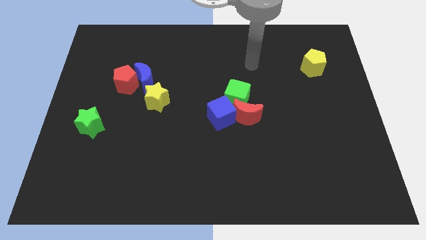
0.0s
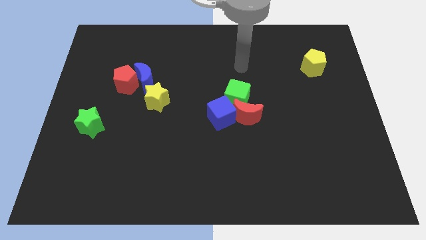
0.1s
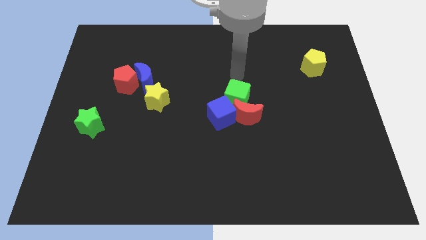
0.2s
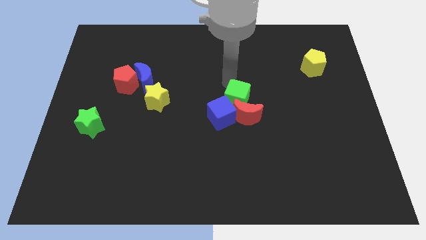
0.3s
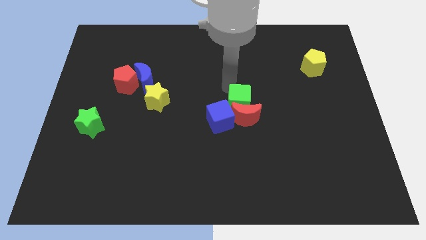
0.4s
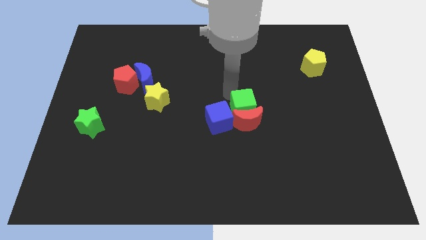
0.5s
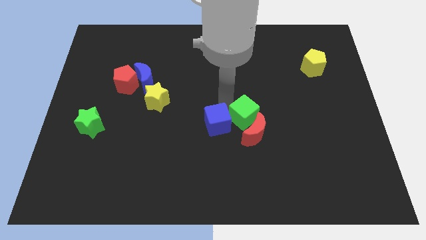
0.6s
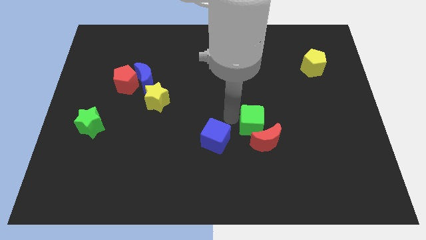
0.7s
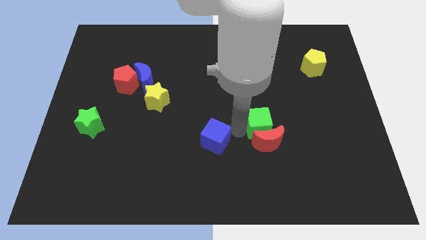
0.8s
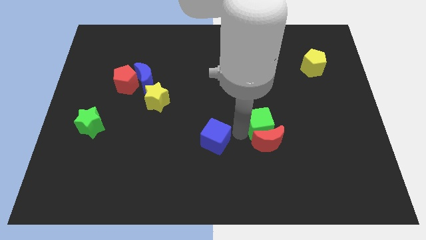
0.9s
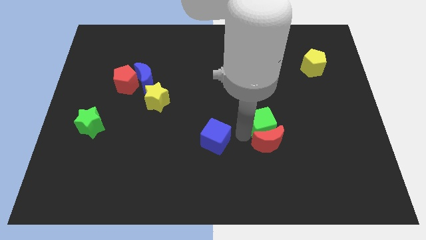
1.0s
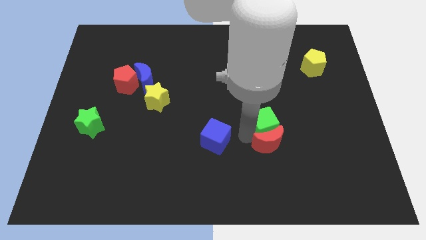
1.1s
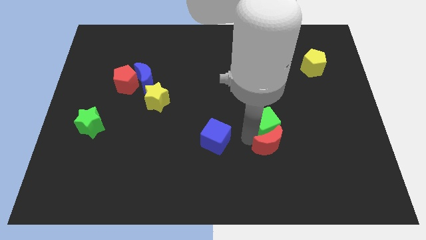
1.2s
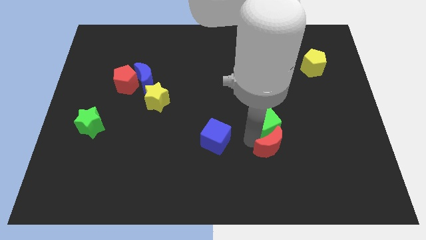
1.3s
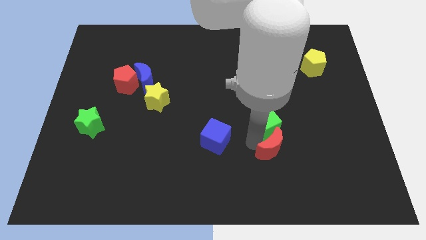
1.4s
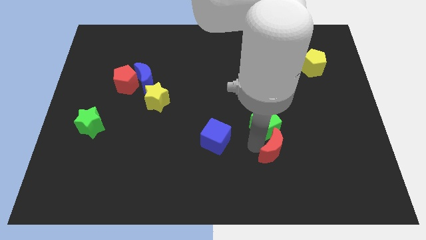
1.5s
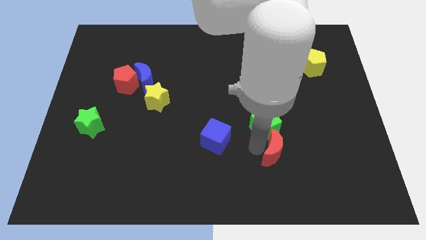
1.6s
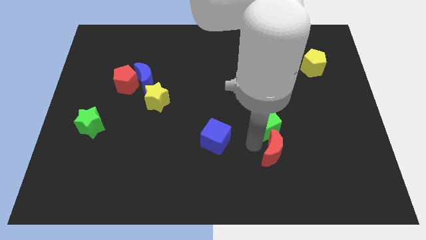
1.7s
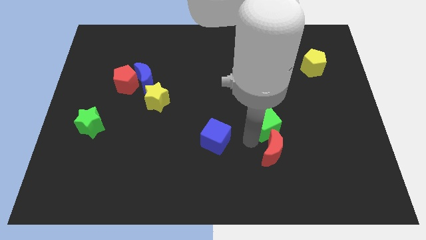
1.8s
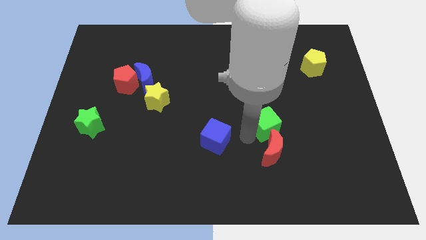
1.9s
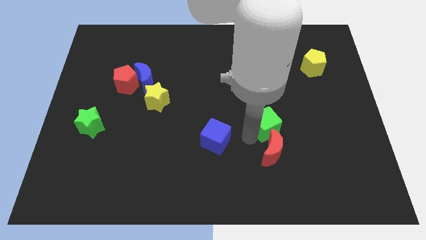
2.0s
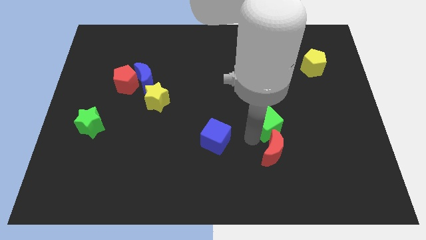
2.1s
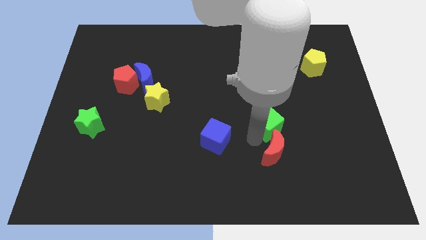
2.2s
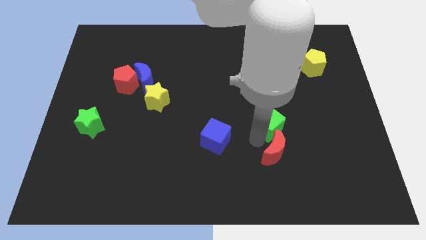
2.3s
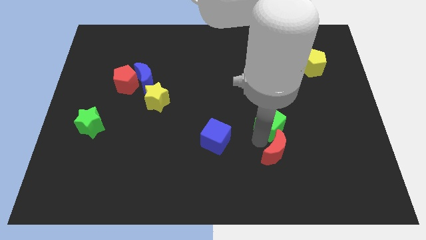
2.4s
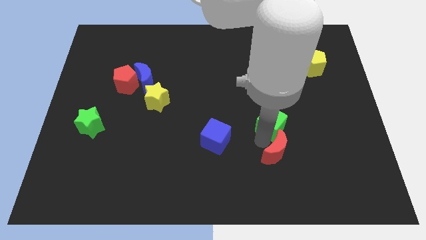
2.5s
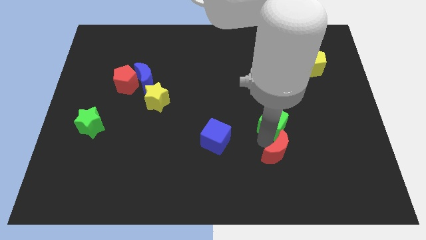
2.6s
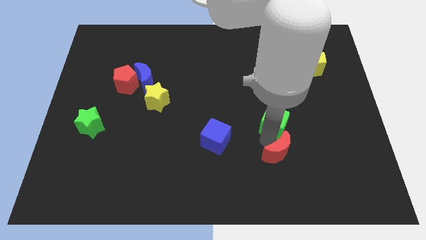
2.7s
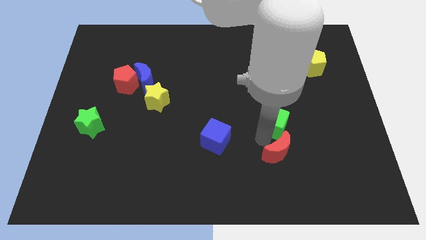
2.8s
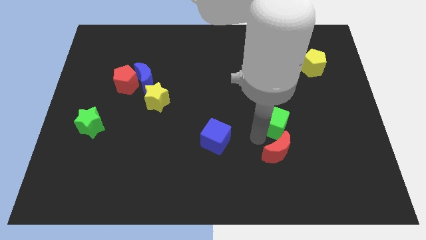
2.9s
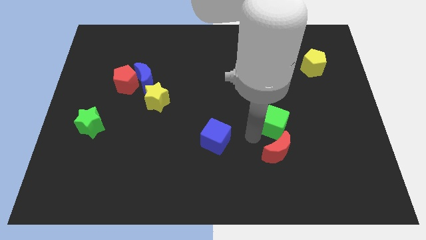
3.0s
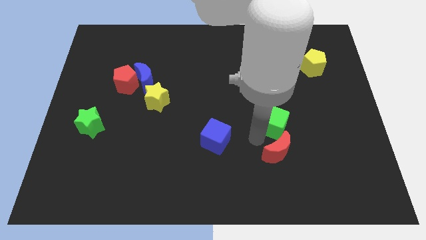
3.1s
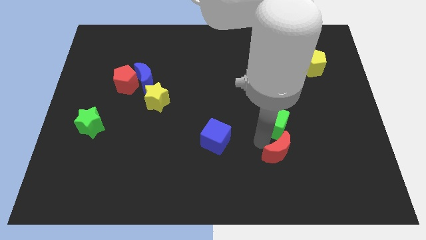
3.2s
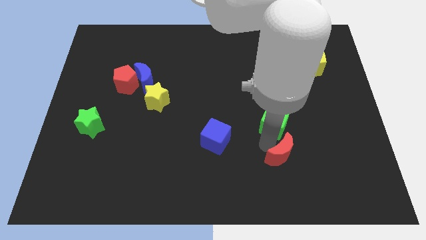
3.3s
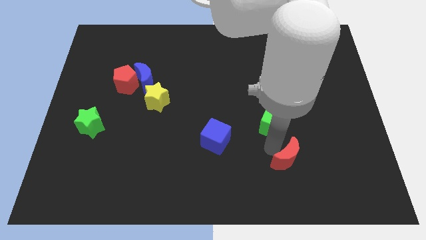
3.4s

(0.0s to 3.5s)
pull the red moon apart from the green cube and blue cube

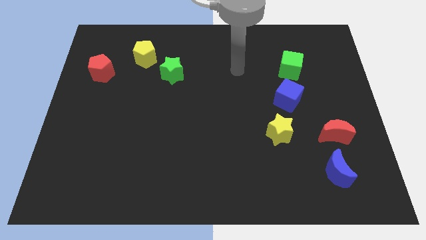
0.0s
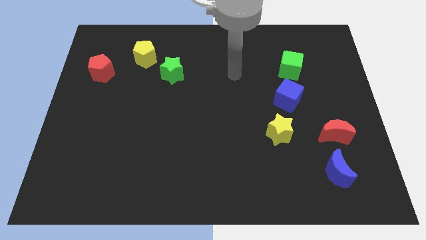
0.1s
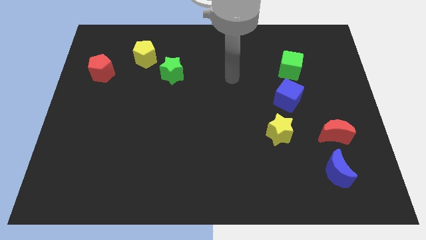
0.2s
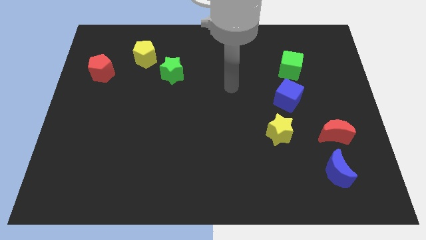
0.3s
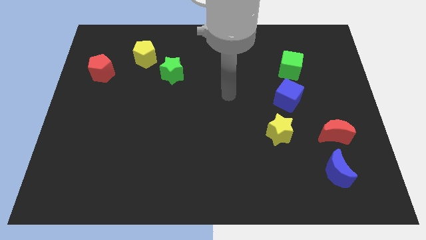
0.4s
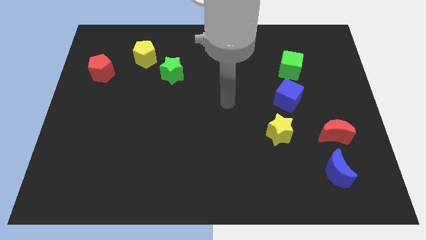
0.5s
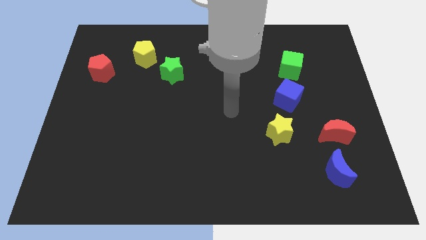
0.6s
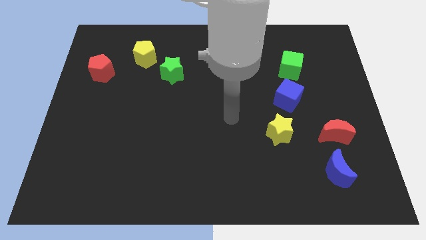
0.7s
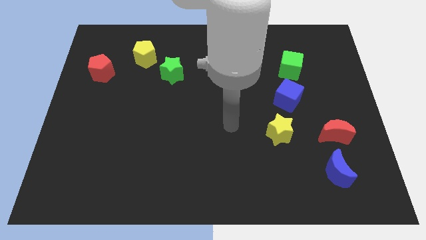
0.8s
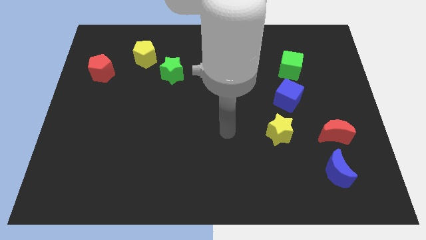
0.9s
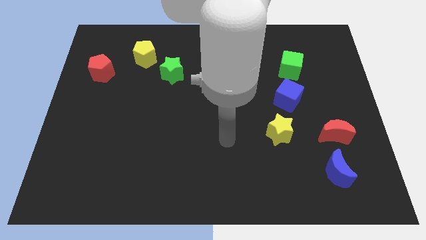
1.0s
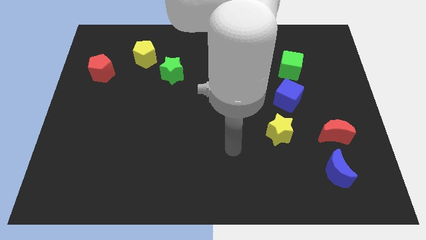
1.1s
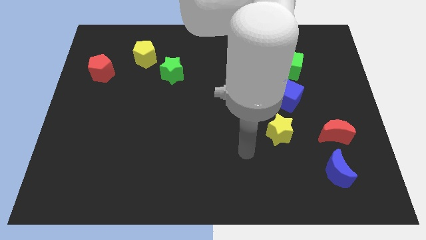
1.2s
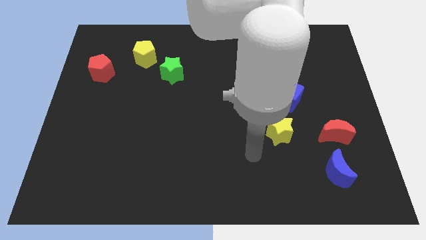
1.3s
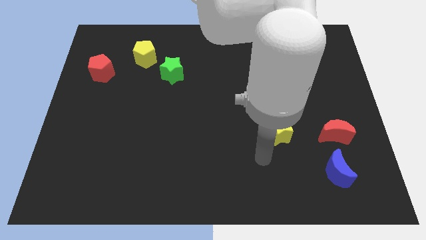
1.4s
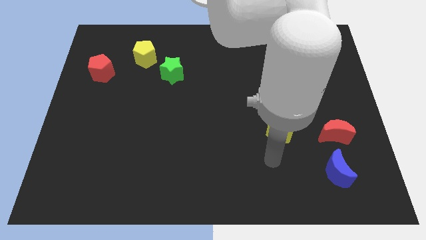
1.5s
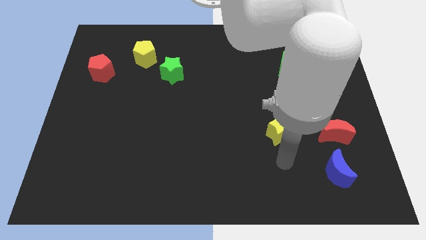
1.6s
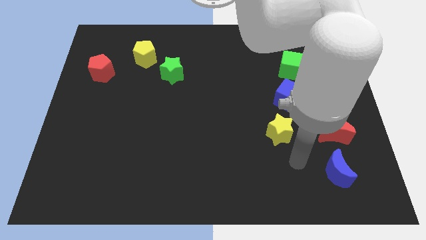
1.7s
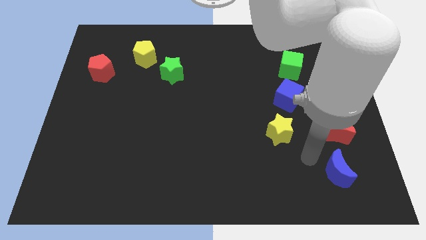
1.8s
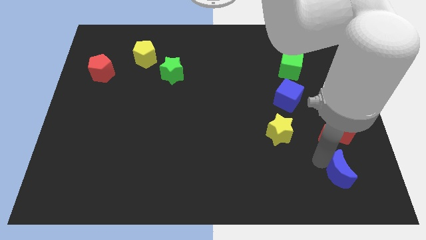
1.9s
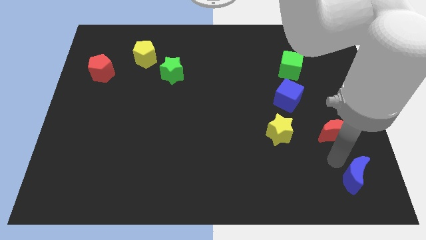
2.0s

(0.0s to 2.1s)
move the red moon away from the blue moon

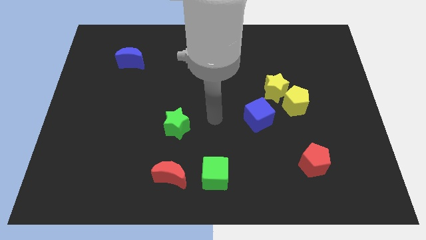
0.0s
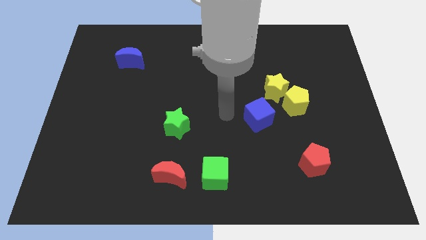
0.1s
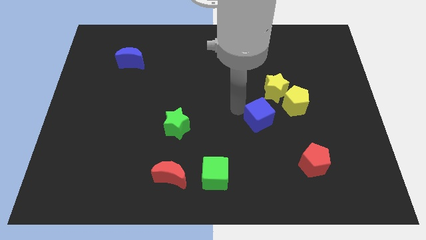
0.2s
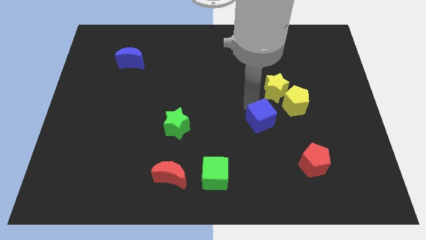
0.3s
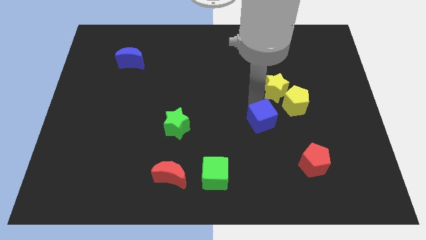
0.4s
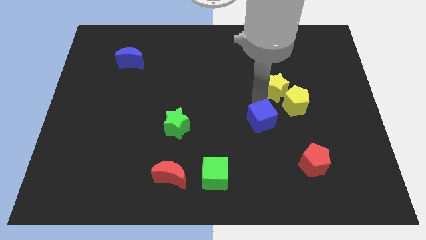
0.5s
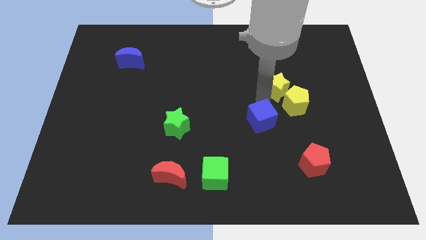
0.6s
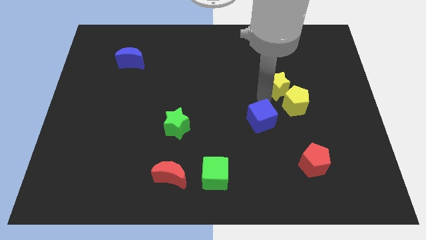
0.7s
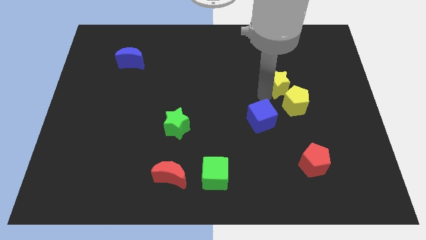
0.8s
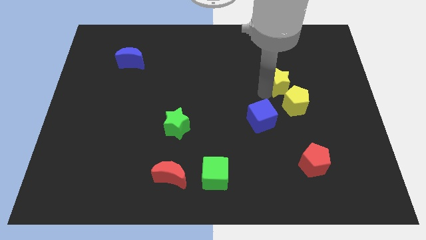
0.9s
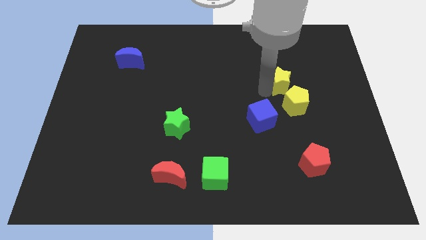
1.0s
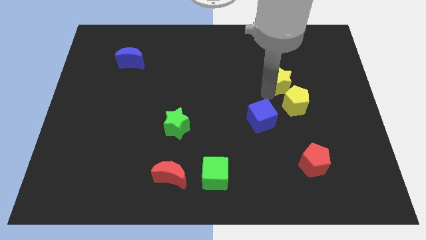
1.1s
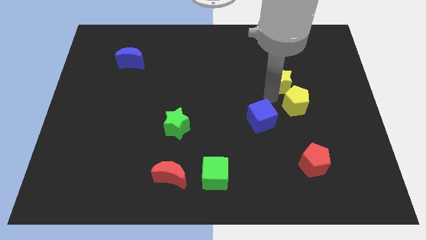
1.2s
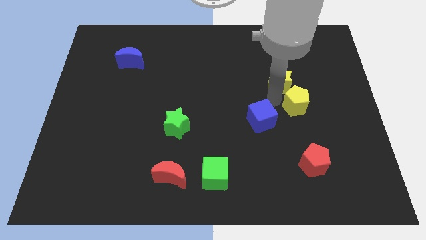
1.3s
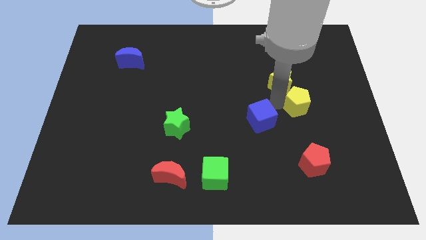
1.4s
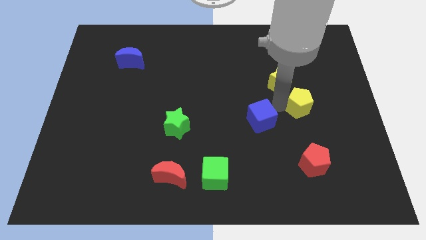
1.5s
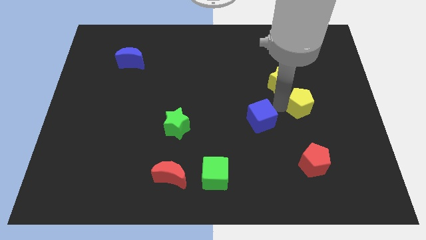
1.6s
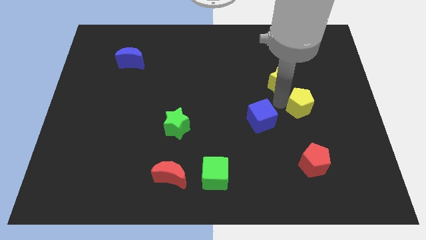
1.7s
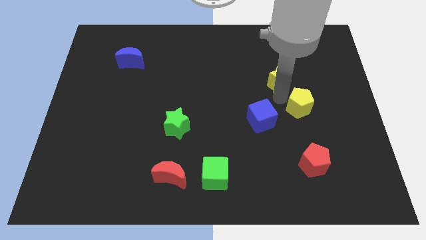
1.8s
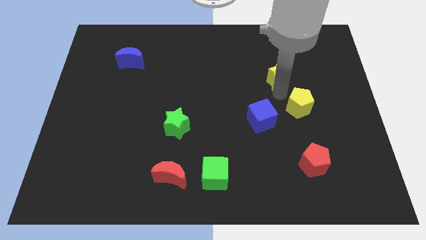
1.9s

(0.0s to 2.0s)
separate the yellow star from the yellow pentagon and blue cube

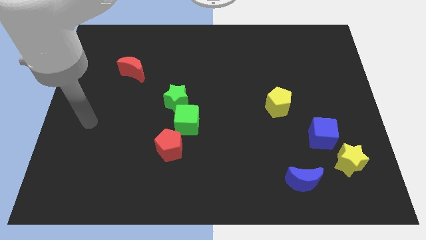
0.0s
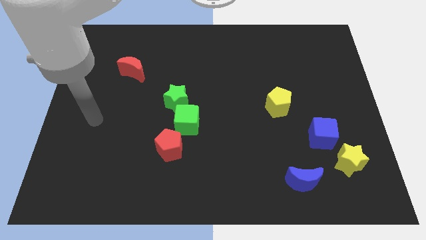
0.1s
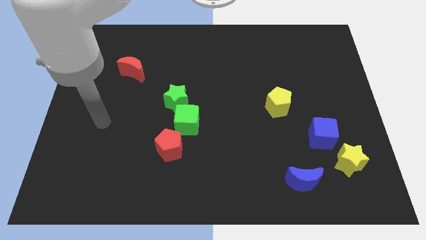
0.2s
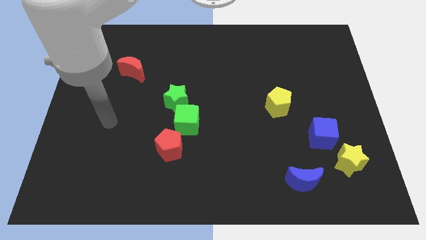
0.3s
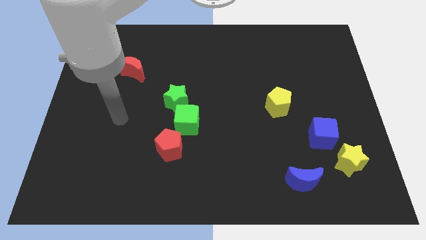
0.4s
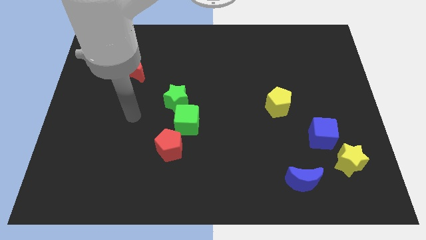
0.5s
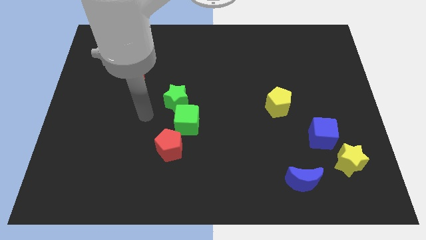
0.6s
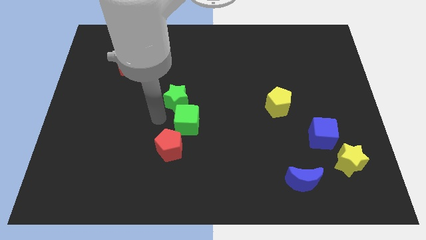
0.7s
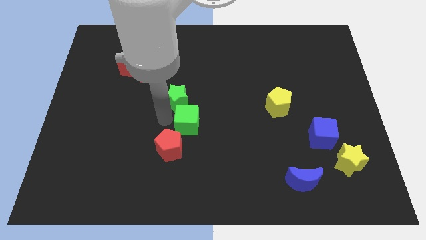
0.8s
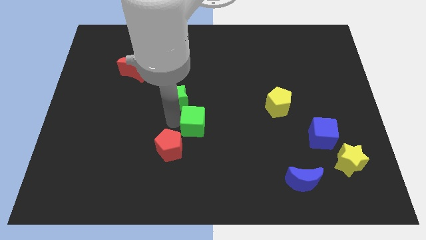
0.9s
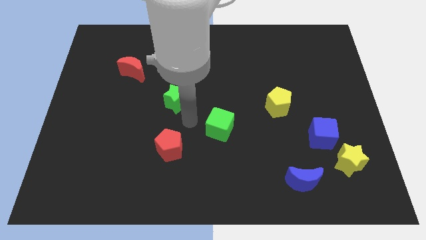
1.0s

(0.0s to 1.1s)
move the green star away from the green cube

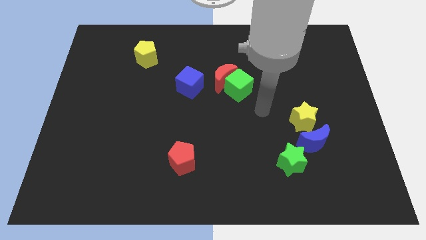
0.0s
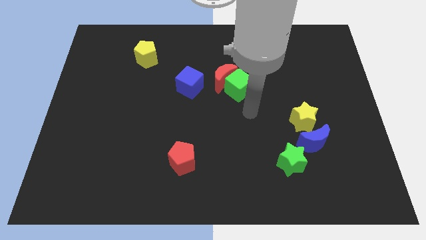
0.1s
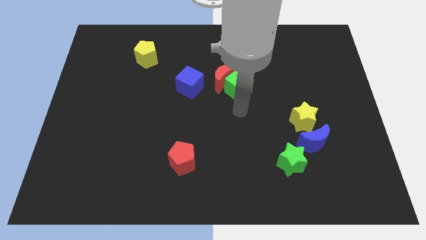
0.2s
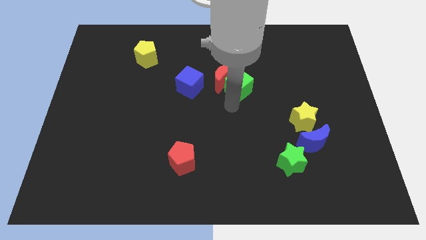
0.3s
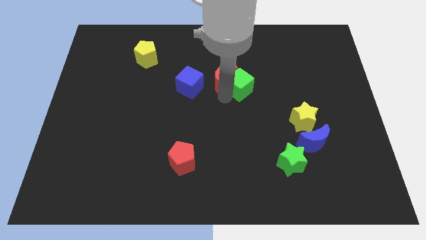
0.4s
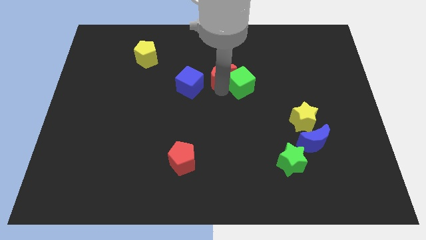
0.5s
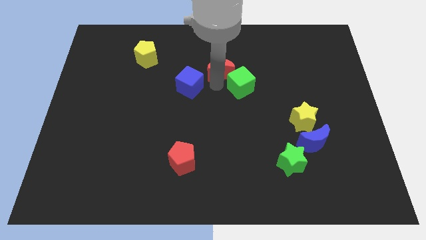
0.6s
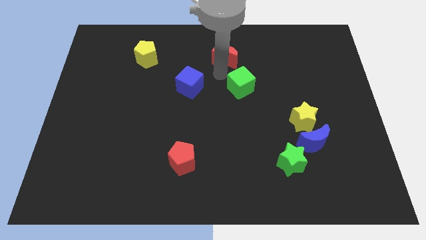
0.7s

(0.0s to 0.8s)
move the green cube away from the red moon

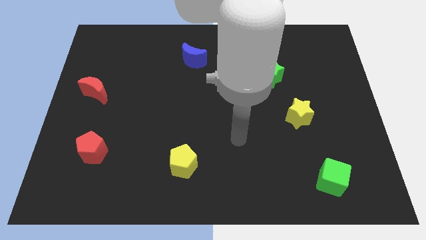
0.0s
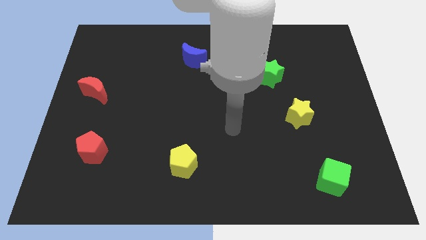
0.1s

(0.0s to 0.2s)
move the blue cube away from the green star
